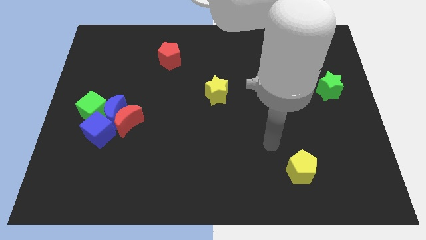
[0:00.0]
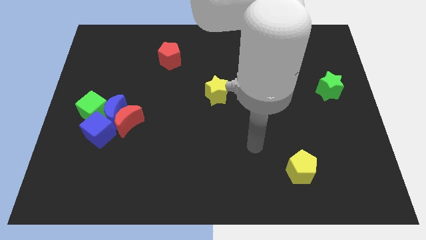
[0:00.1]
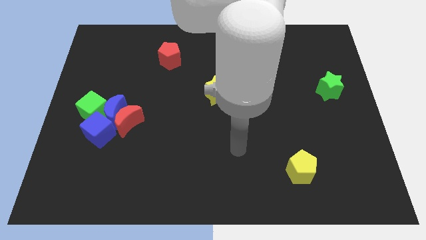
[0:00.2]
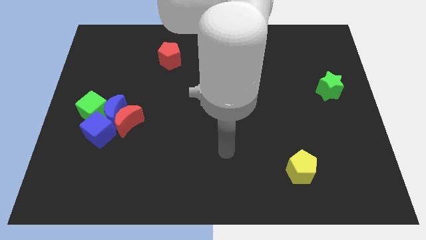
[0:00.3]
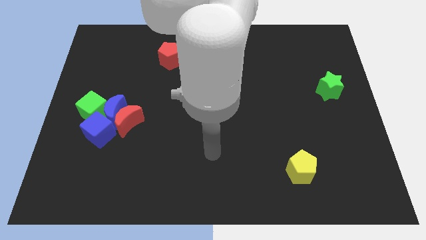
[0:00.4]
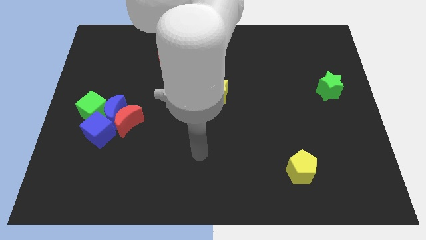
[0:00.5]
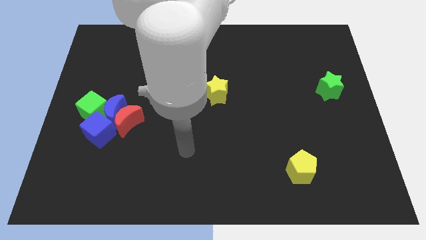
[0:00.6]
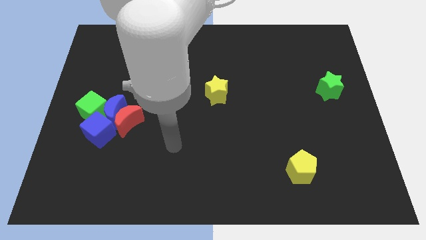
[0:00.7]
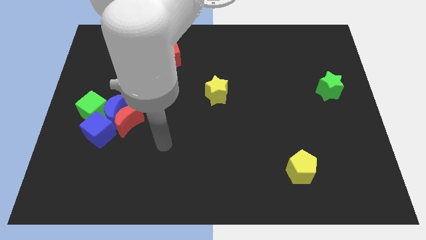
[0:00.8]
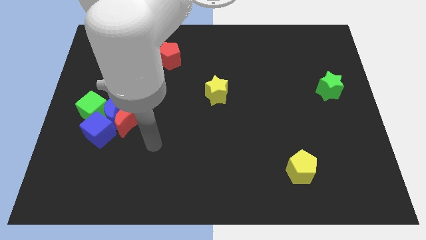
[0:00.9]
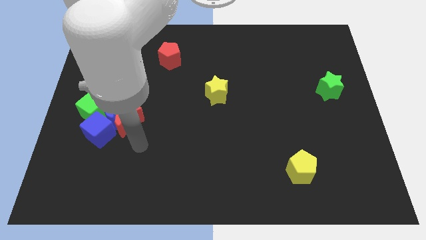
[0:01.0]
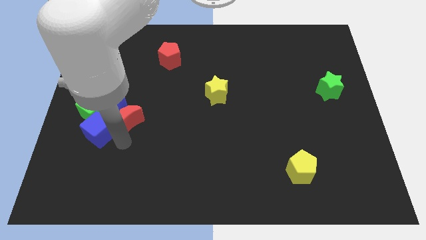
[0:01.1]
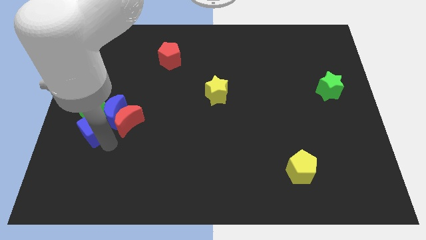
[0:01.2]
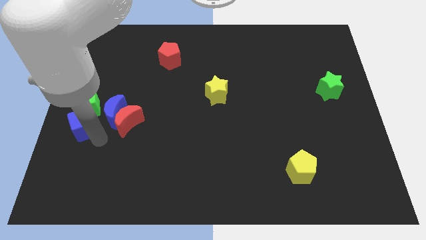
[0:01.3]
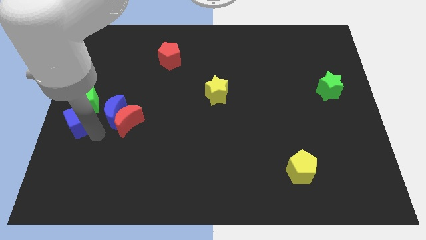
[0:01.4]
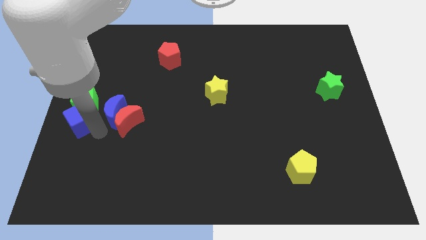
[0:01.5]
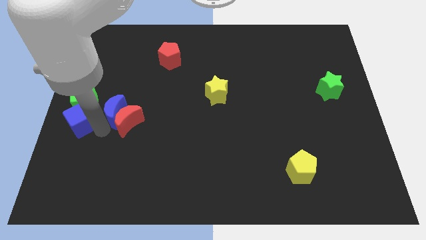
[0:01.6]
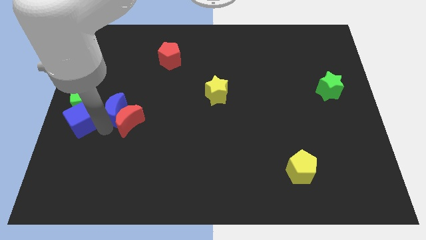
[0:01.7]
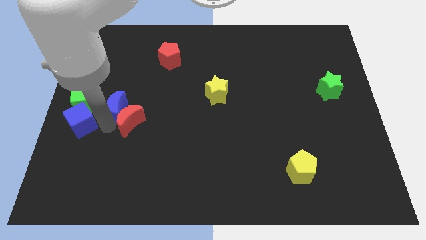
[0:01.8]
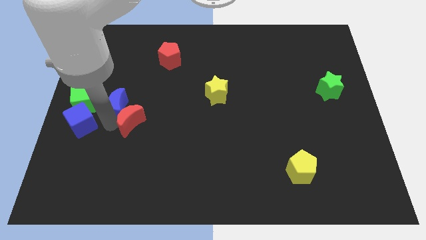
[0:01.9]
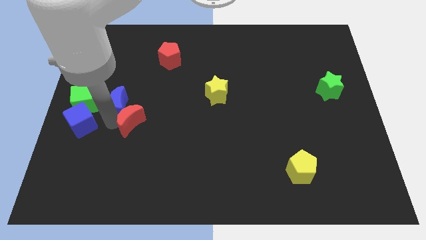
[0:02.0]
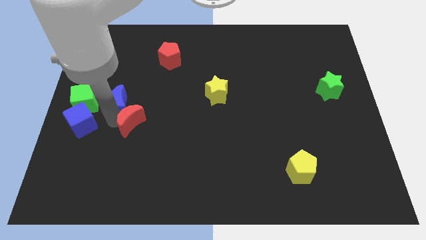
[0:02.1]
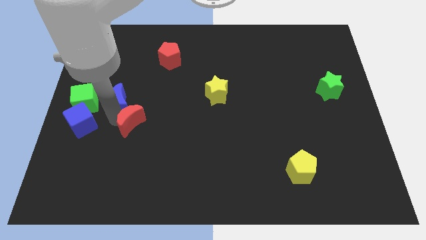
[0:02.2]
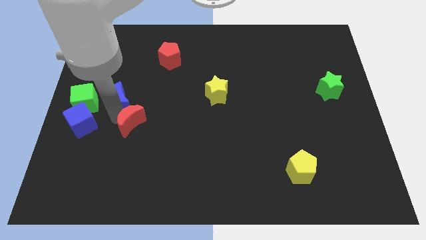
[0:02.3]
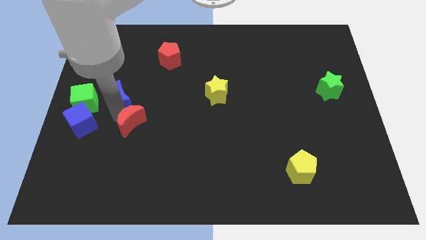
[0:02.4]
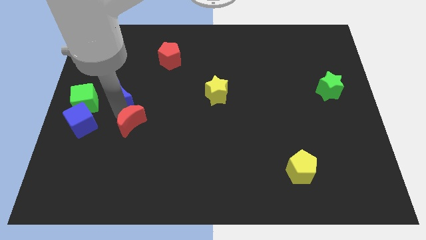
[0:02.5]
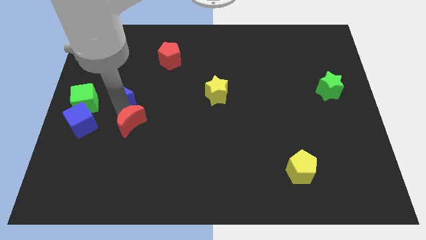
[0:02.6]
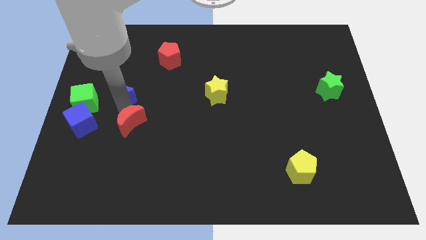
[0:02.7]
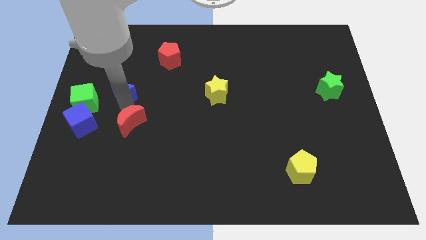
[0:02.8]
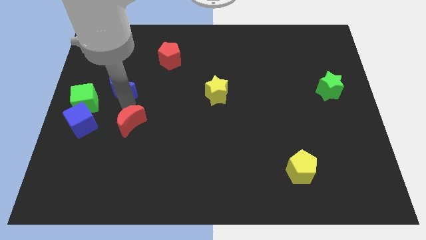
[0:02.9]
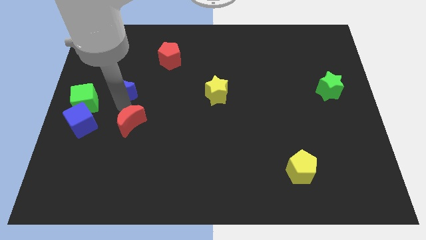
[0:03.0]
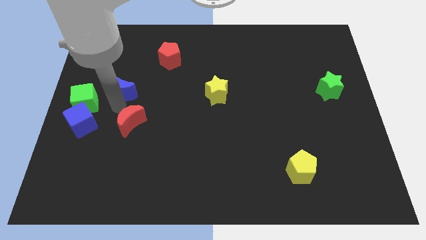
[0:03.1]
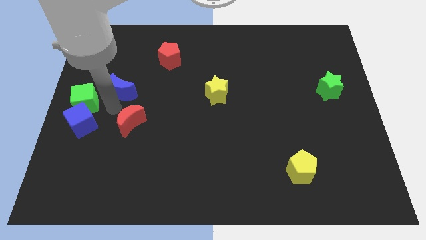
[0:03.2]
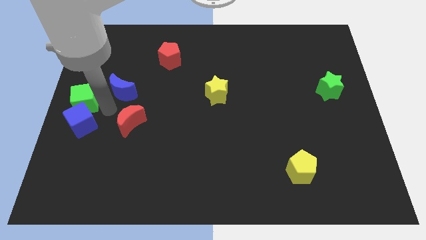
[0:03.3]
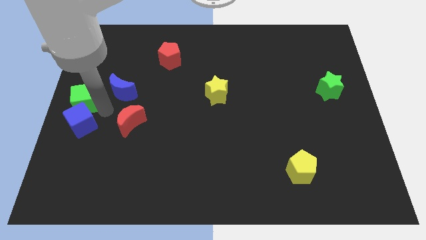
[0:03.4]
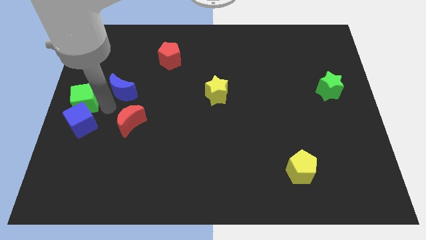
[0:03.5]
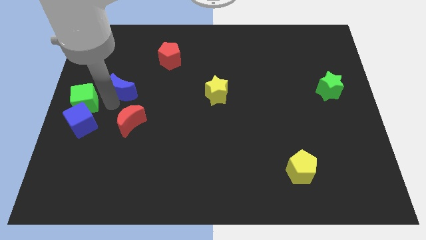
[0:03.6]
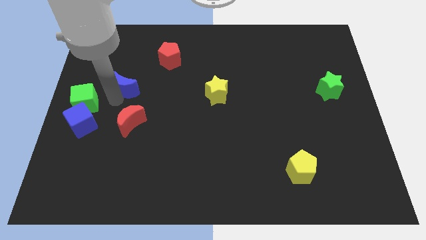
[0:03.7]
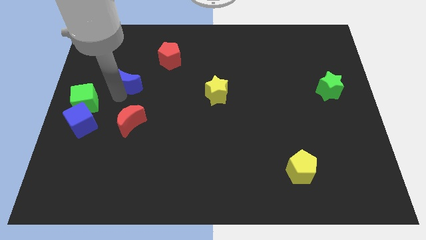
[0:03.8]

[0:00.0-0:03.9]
pull the blue moon apart from the red moon, green cube, and blue cube

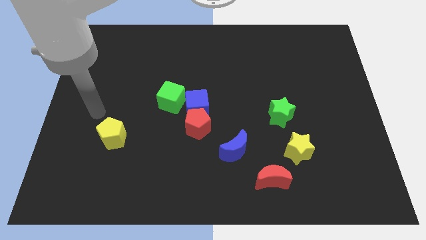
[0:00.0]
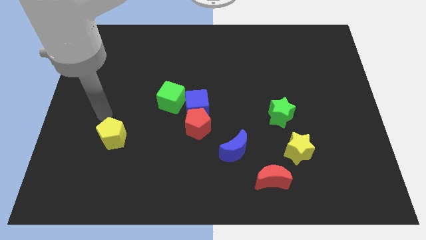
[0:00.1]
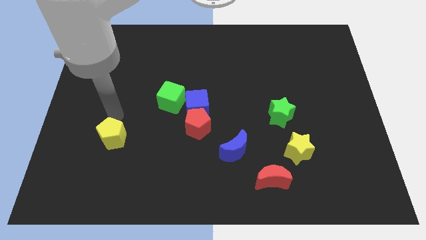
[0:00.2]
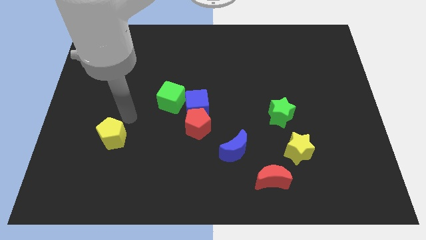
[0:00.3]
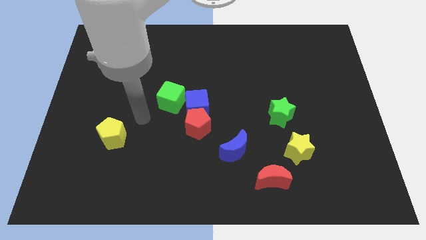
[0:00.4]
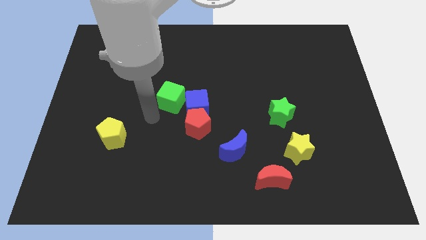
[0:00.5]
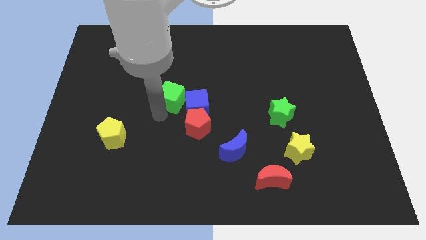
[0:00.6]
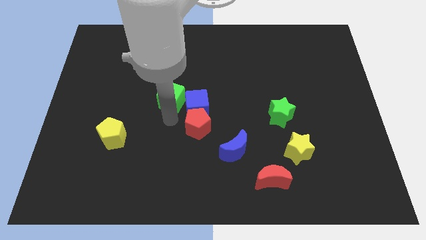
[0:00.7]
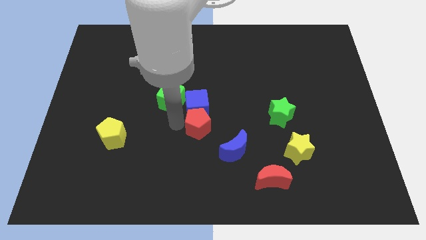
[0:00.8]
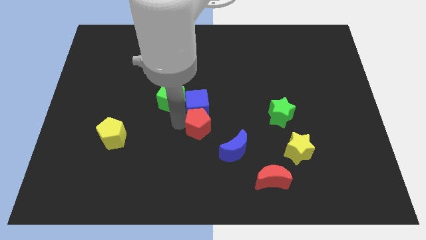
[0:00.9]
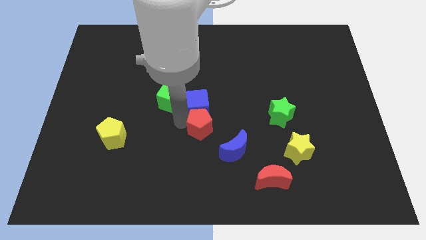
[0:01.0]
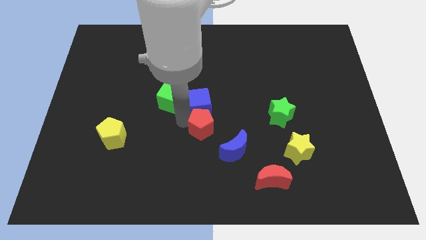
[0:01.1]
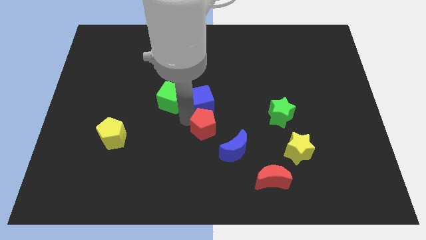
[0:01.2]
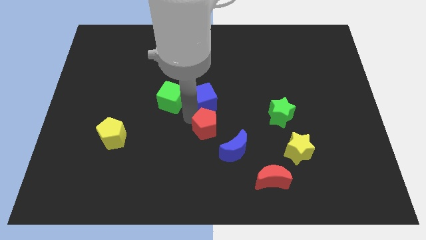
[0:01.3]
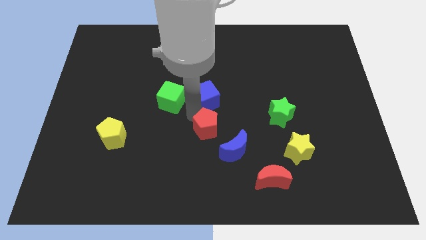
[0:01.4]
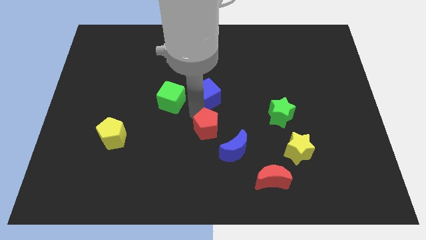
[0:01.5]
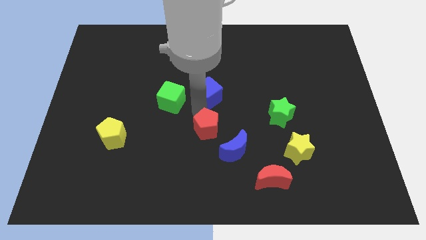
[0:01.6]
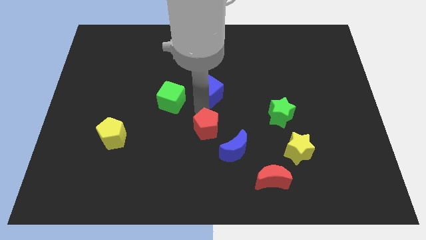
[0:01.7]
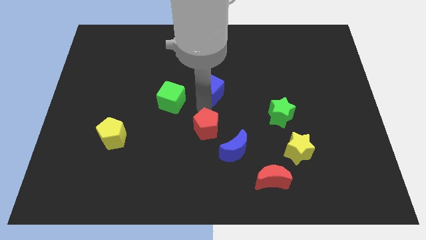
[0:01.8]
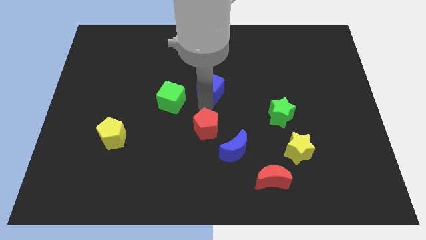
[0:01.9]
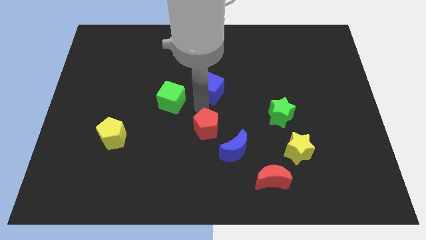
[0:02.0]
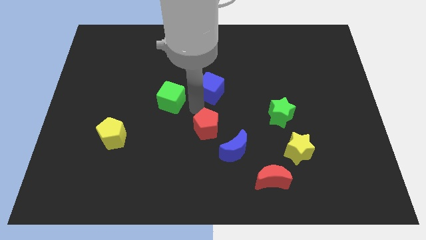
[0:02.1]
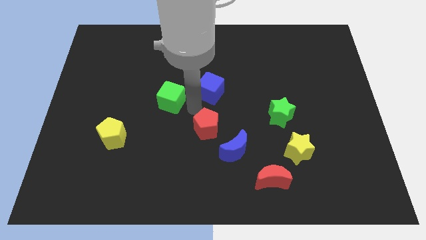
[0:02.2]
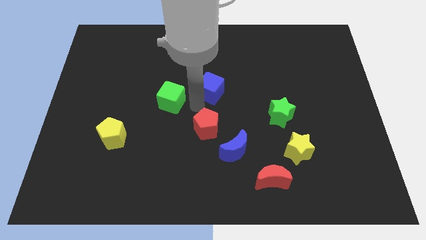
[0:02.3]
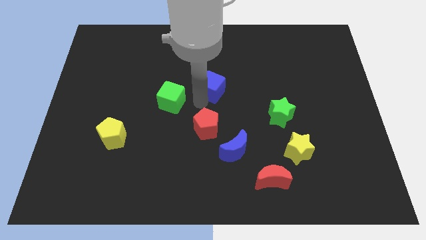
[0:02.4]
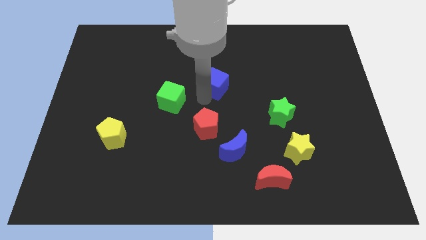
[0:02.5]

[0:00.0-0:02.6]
pull the blue cube apart from the red pentagon and green cube

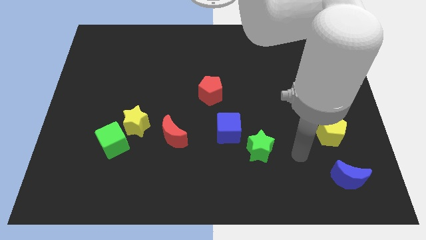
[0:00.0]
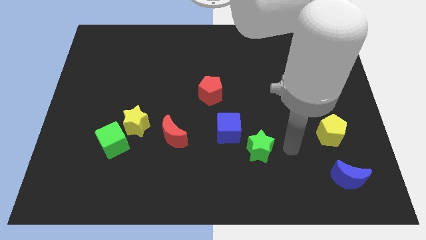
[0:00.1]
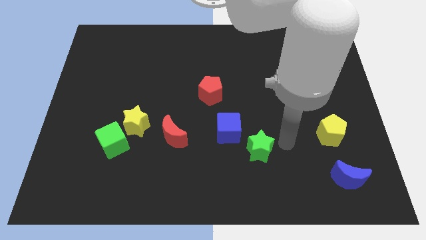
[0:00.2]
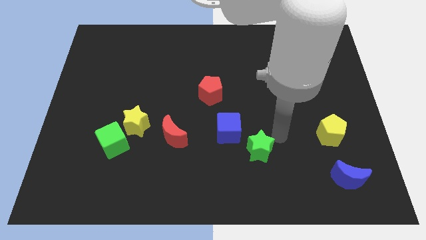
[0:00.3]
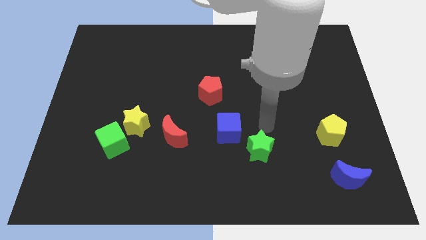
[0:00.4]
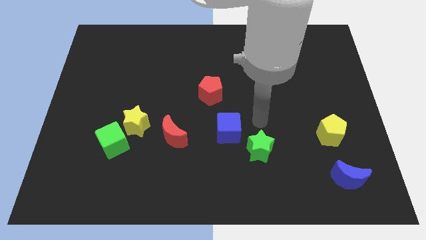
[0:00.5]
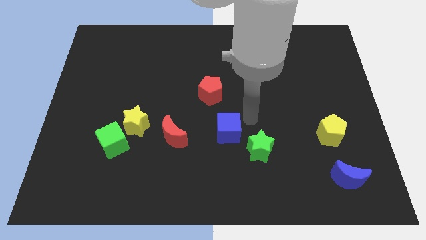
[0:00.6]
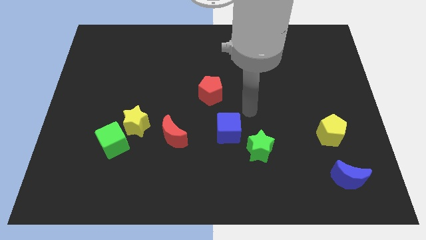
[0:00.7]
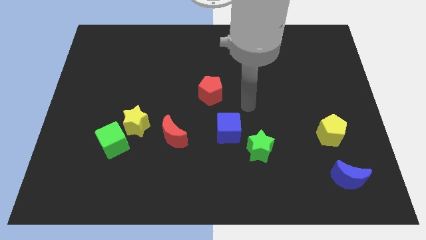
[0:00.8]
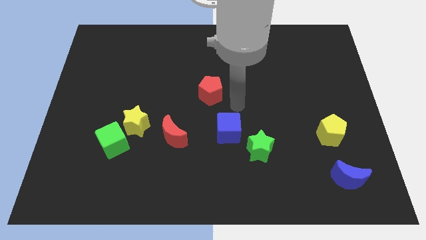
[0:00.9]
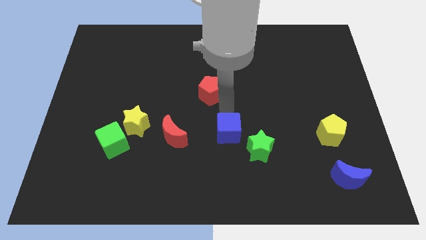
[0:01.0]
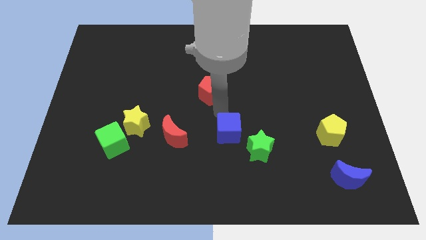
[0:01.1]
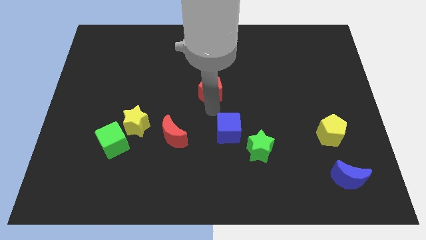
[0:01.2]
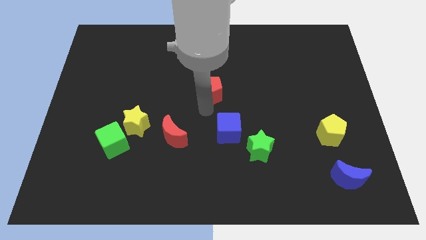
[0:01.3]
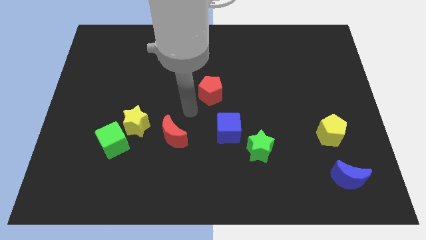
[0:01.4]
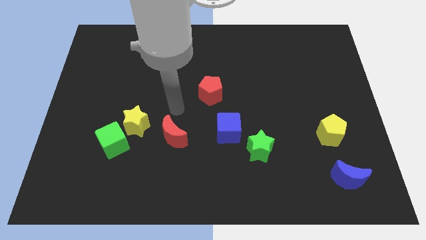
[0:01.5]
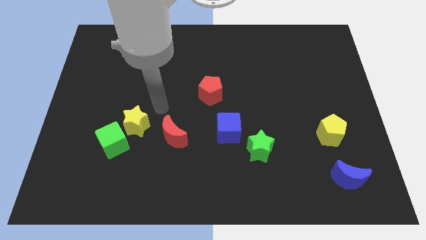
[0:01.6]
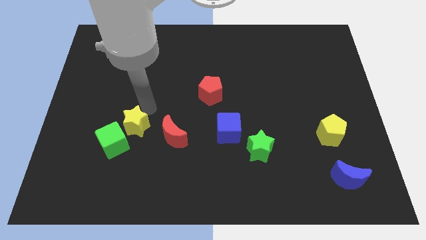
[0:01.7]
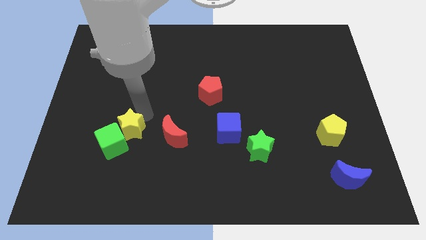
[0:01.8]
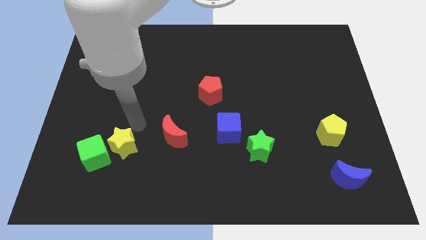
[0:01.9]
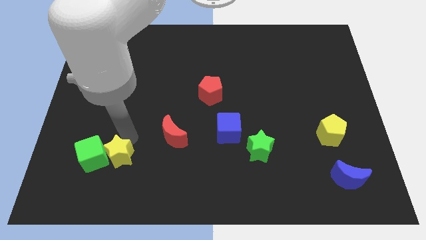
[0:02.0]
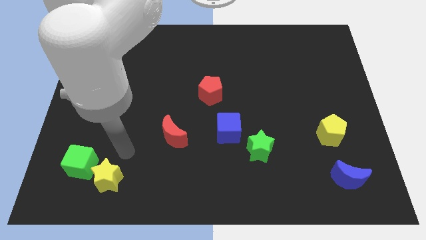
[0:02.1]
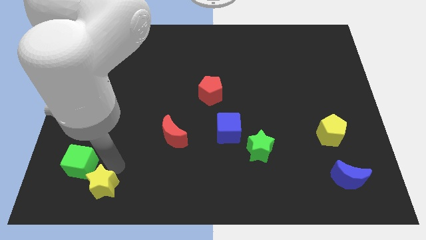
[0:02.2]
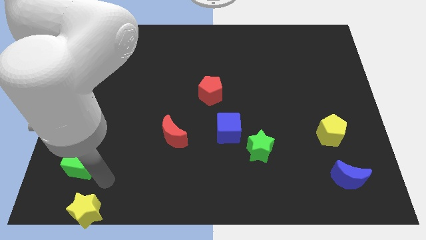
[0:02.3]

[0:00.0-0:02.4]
pull the green cube apart from the yellow star

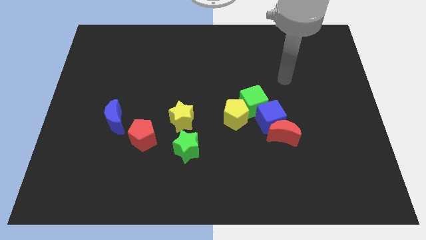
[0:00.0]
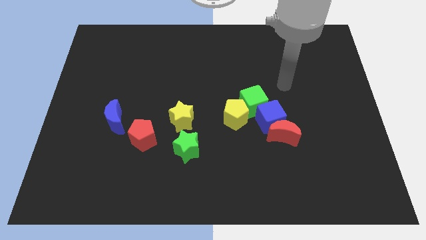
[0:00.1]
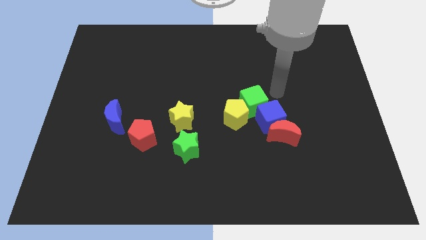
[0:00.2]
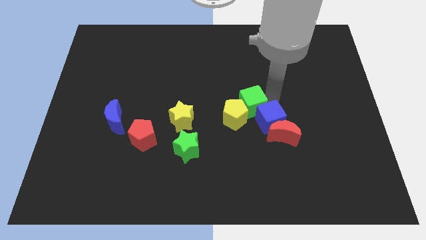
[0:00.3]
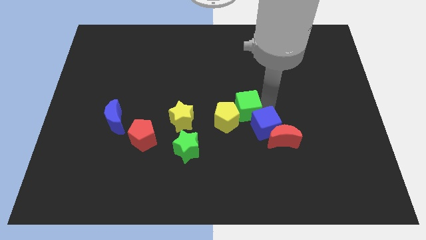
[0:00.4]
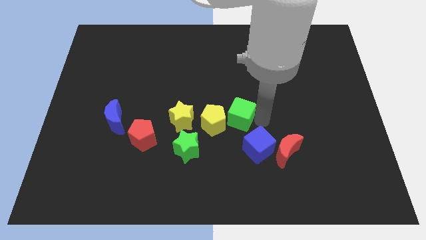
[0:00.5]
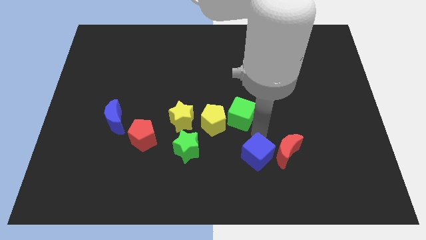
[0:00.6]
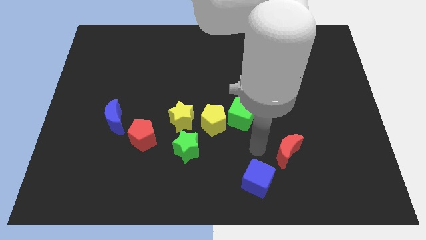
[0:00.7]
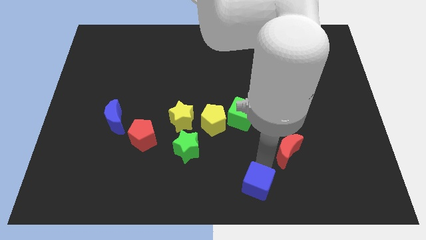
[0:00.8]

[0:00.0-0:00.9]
pull the red moon apart from the blue cube
